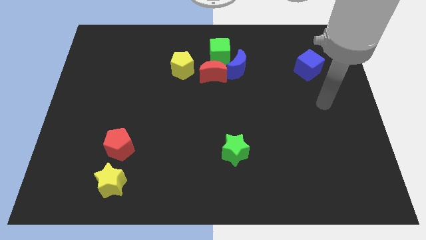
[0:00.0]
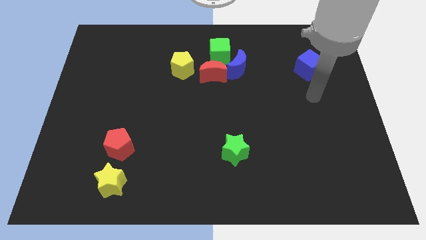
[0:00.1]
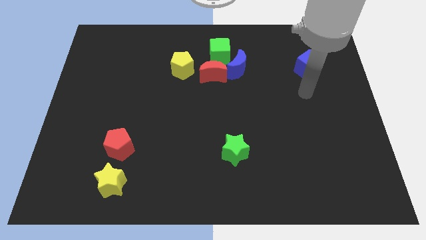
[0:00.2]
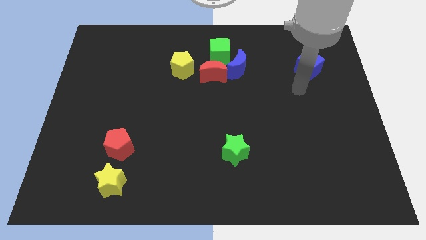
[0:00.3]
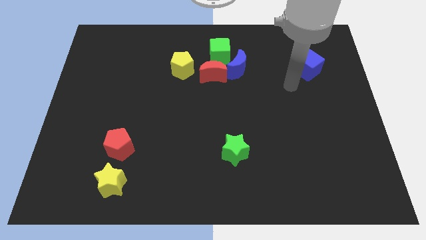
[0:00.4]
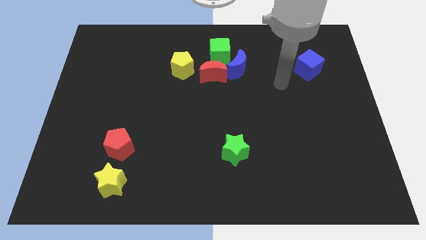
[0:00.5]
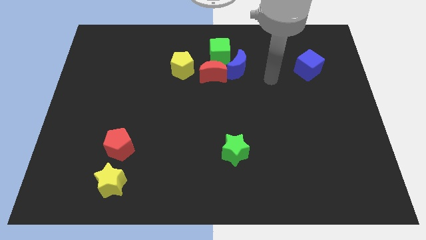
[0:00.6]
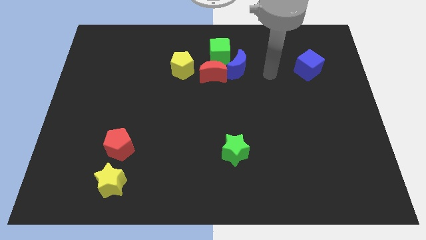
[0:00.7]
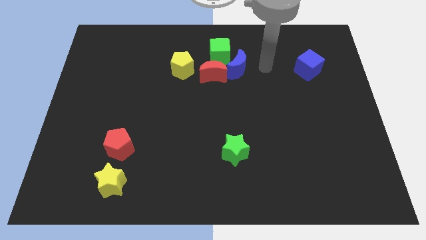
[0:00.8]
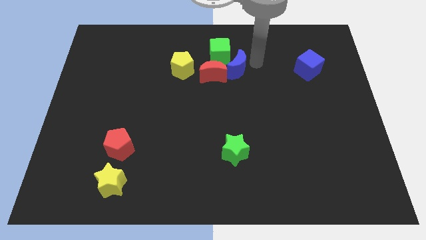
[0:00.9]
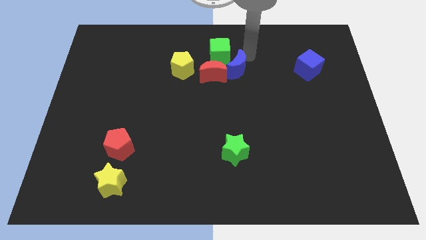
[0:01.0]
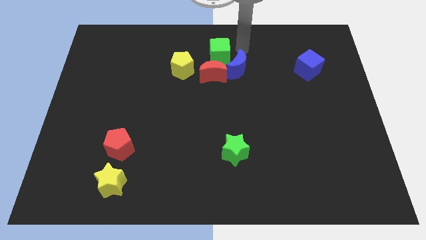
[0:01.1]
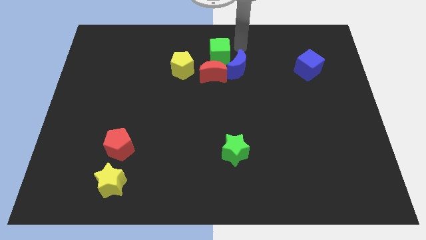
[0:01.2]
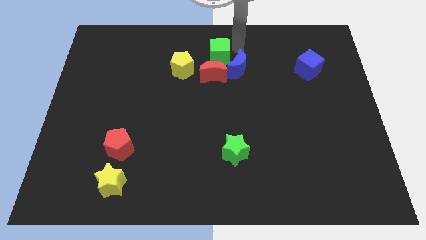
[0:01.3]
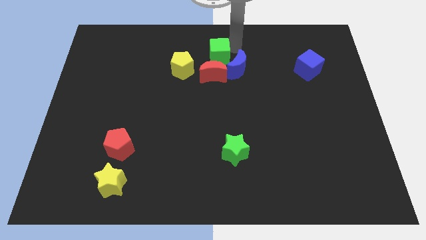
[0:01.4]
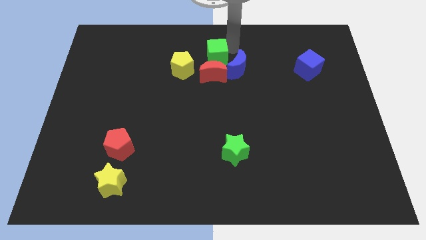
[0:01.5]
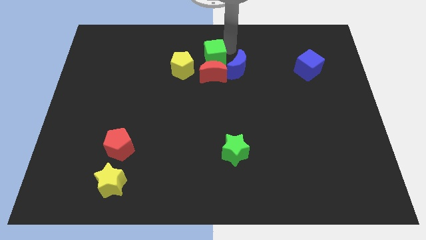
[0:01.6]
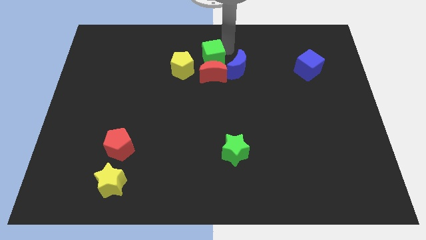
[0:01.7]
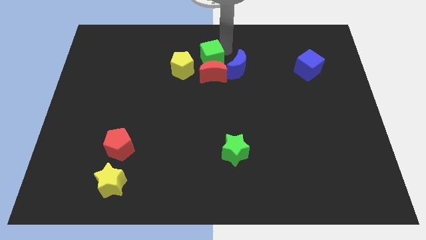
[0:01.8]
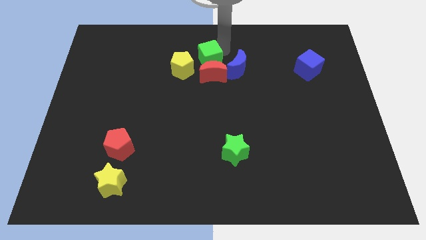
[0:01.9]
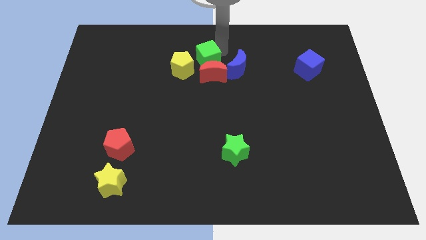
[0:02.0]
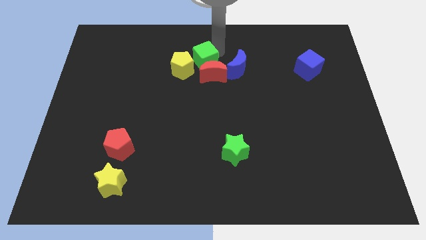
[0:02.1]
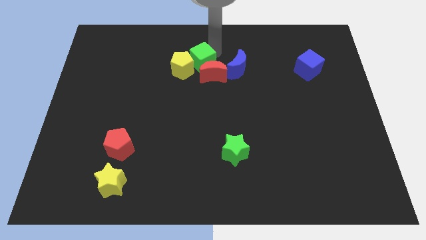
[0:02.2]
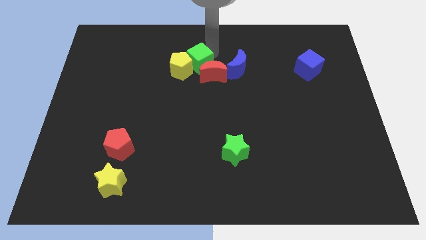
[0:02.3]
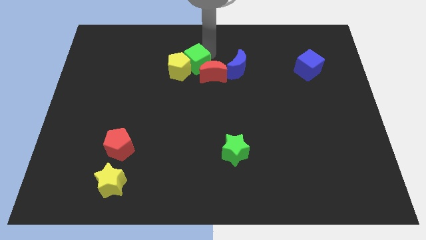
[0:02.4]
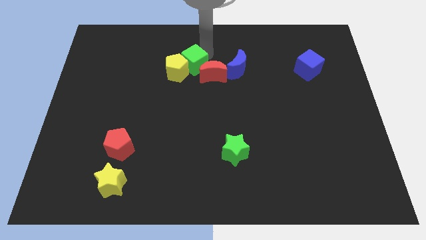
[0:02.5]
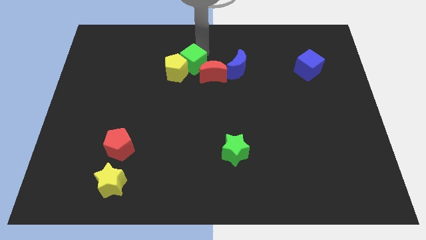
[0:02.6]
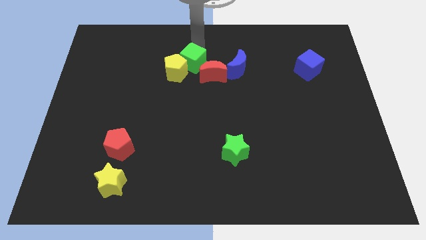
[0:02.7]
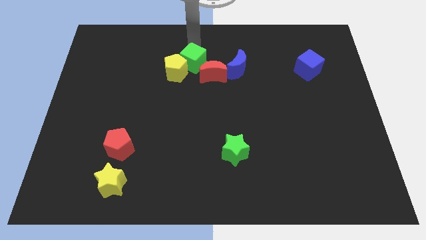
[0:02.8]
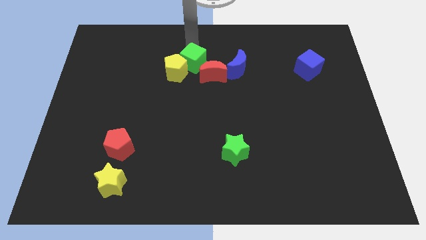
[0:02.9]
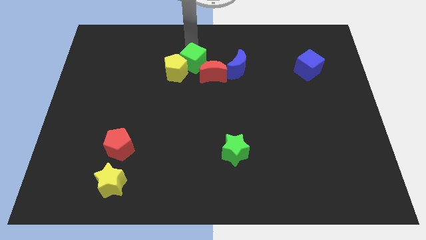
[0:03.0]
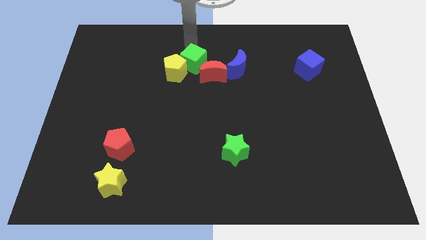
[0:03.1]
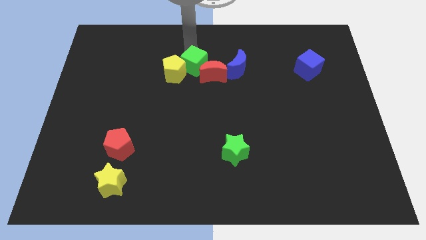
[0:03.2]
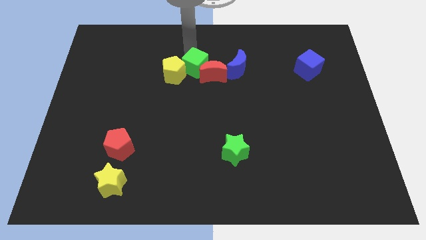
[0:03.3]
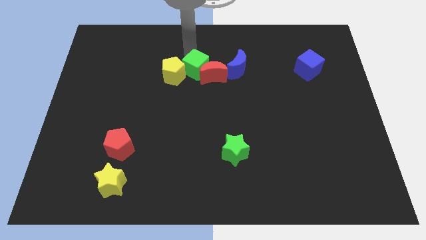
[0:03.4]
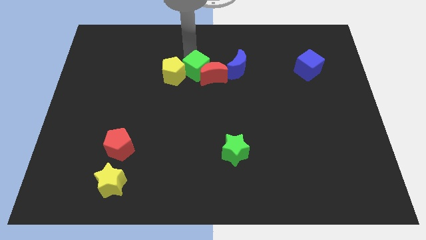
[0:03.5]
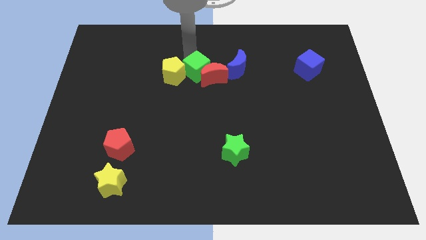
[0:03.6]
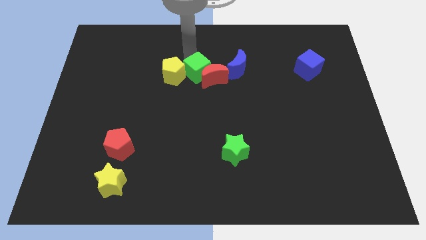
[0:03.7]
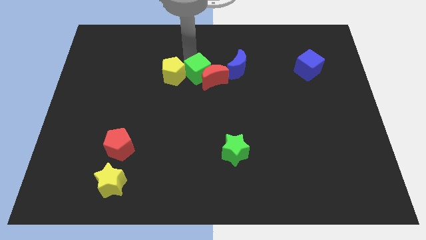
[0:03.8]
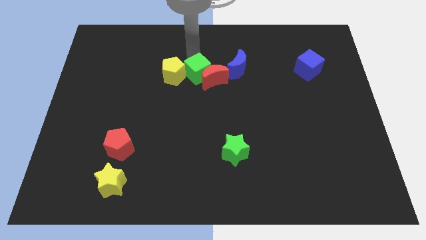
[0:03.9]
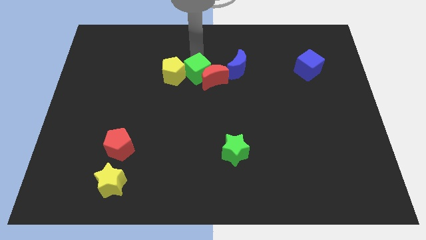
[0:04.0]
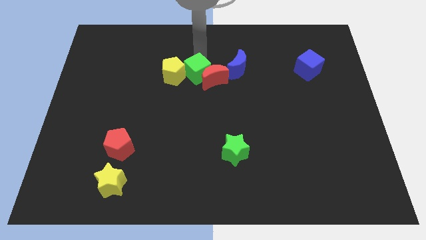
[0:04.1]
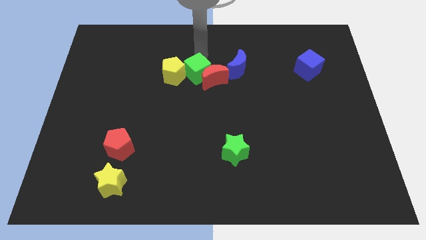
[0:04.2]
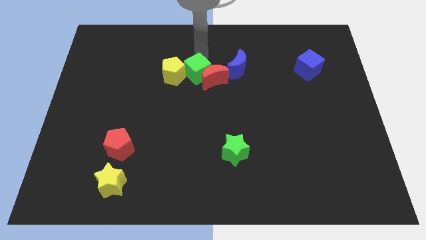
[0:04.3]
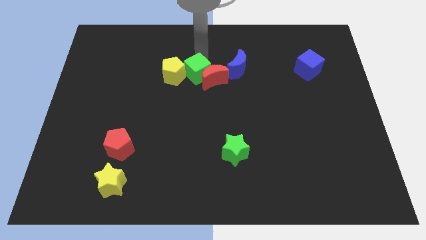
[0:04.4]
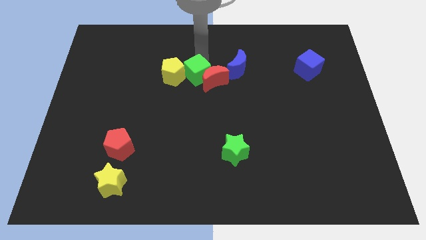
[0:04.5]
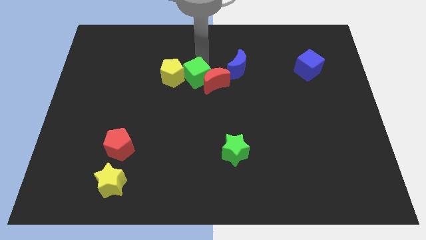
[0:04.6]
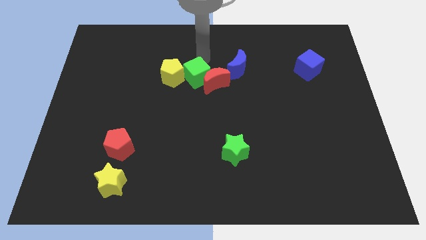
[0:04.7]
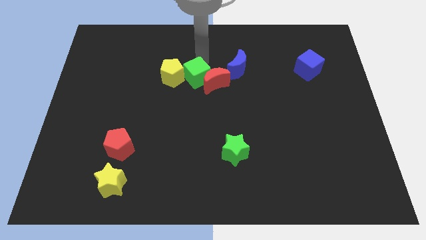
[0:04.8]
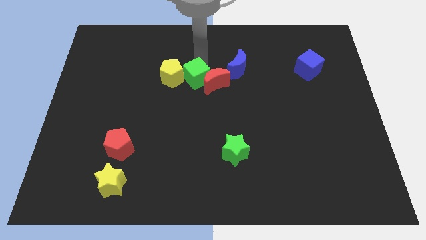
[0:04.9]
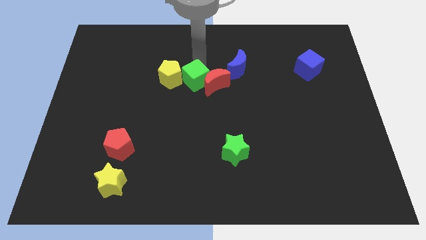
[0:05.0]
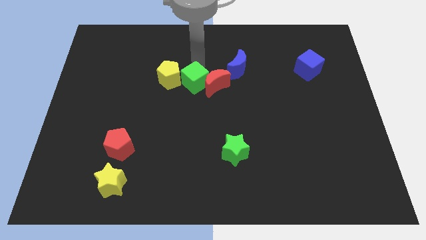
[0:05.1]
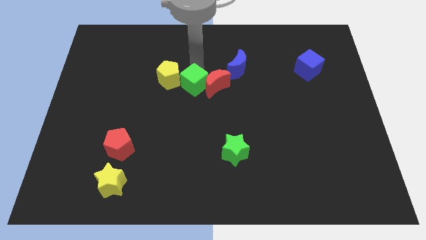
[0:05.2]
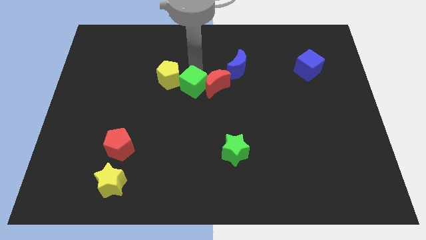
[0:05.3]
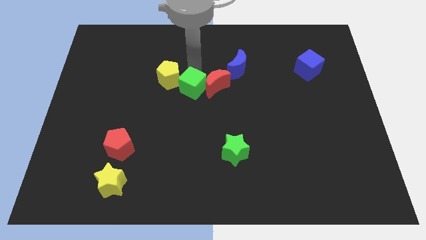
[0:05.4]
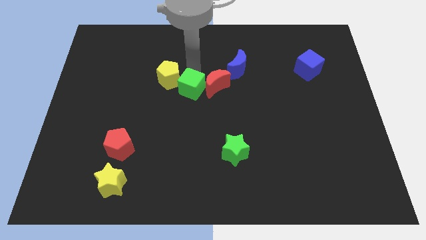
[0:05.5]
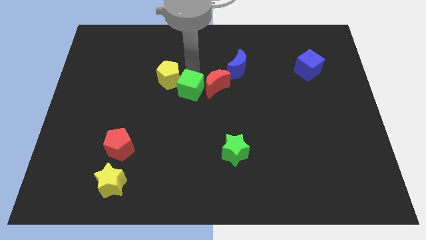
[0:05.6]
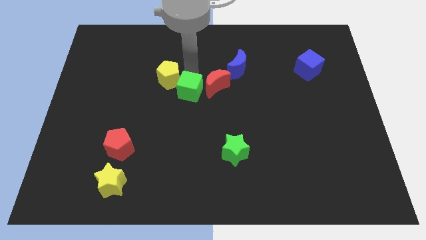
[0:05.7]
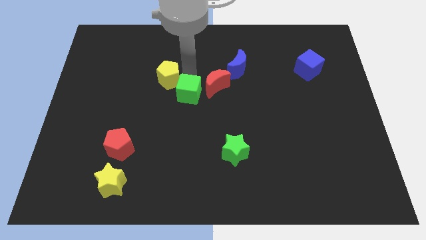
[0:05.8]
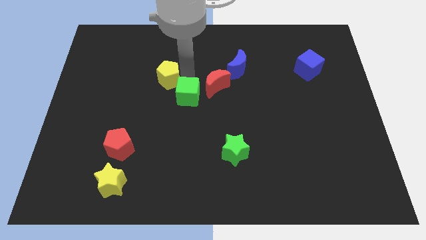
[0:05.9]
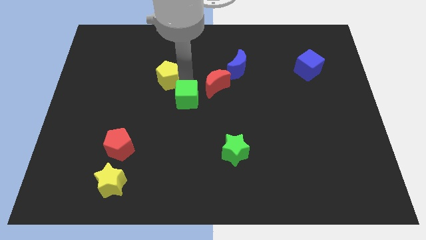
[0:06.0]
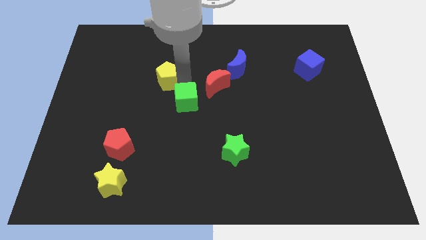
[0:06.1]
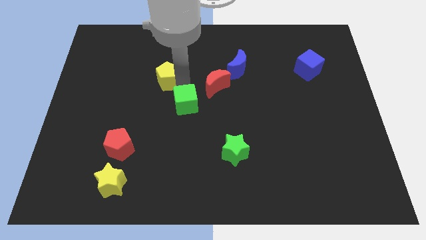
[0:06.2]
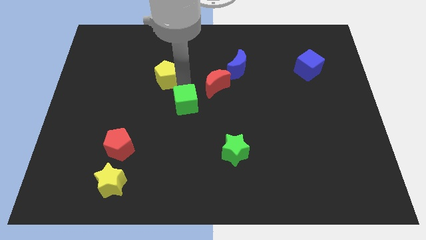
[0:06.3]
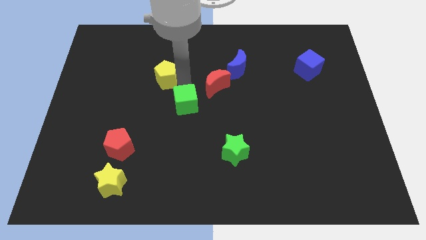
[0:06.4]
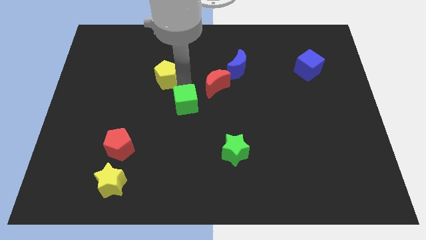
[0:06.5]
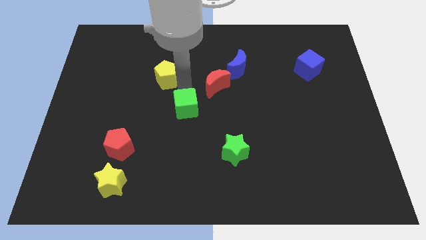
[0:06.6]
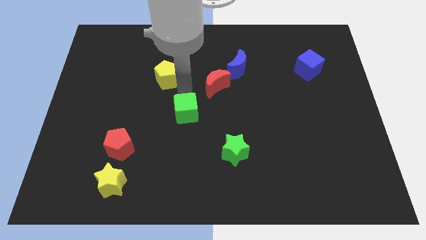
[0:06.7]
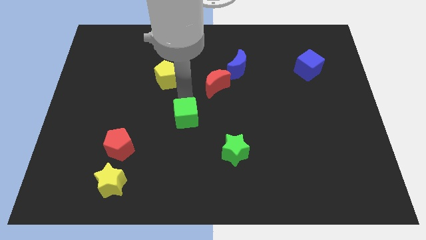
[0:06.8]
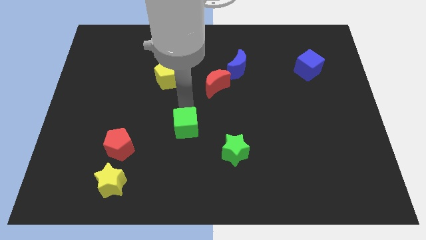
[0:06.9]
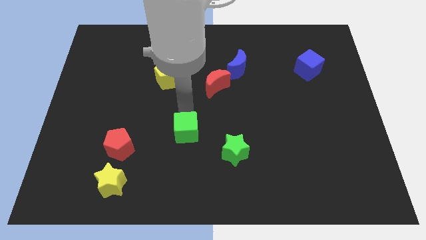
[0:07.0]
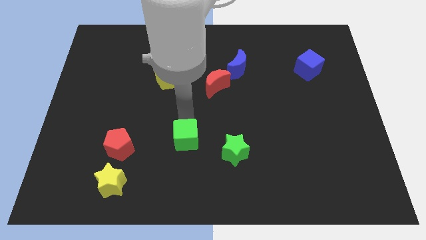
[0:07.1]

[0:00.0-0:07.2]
move the green cube left of the green star

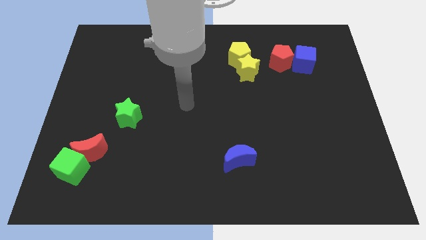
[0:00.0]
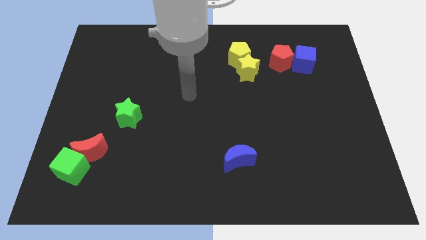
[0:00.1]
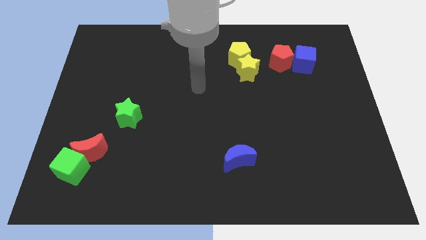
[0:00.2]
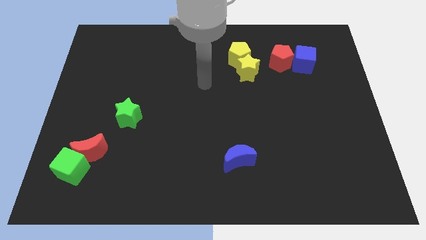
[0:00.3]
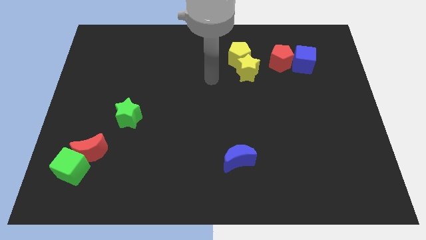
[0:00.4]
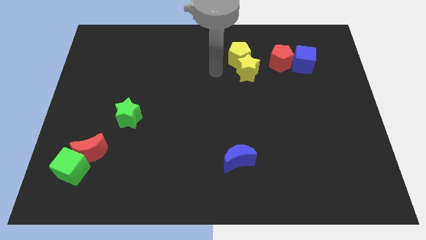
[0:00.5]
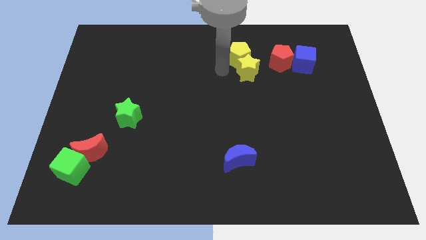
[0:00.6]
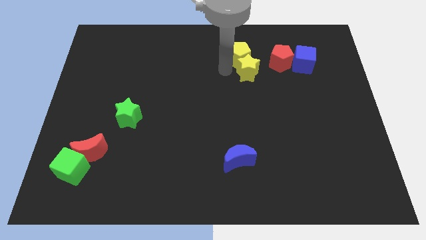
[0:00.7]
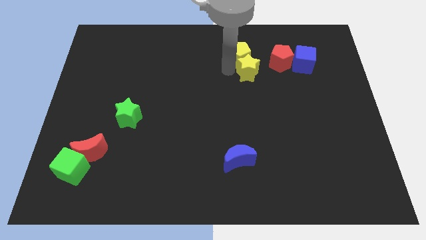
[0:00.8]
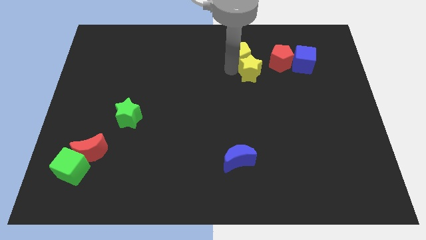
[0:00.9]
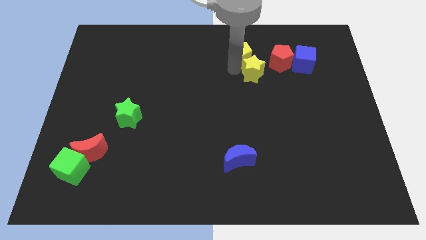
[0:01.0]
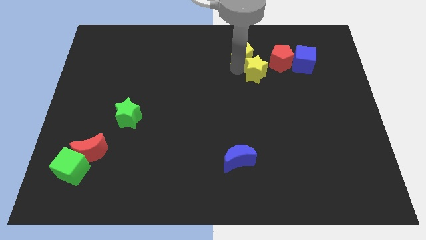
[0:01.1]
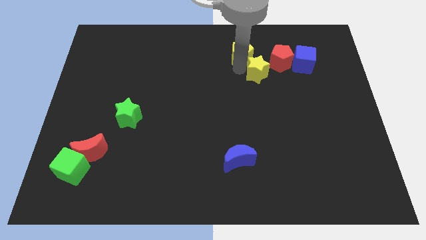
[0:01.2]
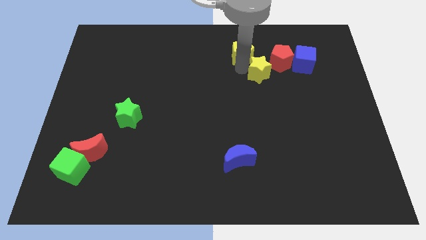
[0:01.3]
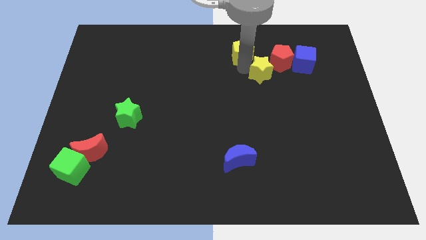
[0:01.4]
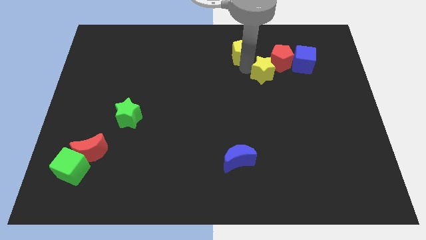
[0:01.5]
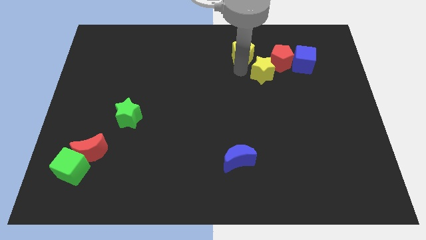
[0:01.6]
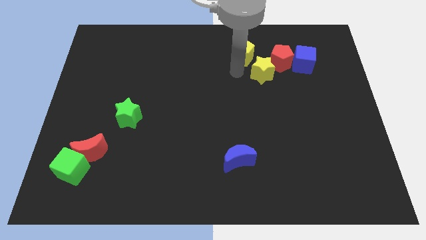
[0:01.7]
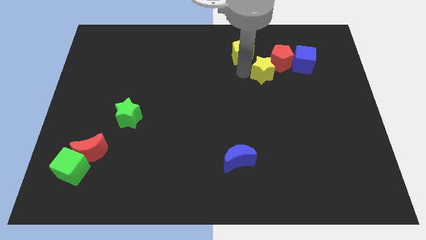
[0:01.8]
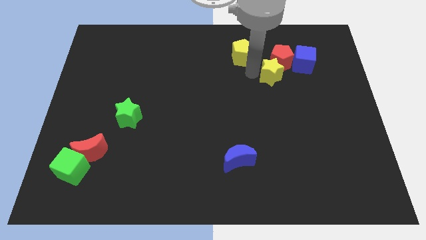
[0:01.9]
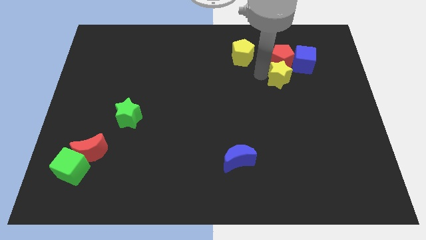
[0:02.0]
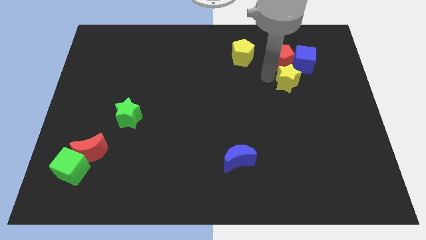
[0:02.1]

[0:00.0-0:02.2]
move the yellow star to the bottom right side of the red pentagon
